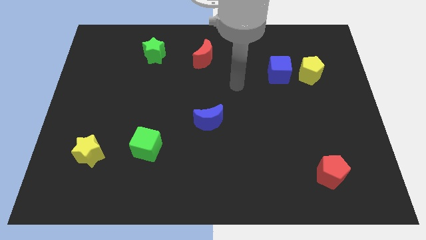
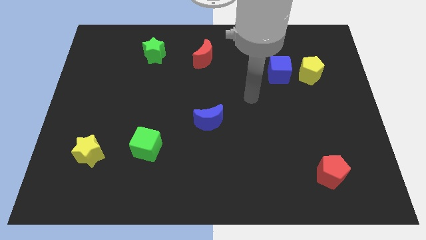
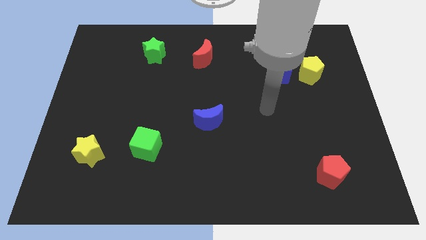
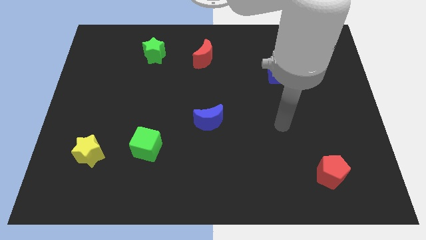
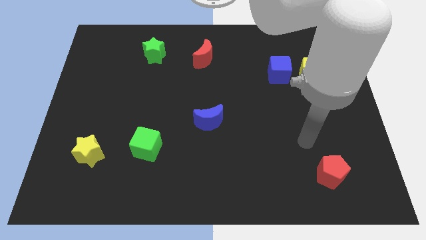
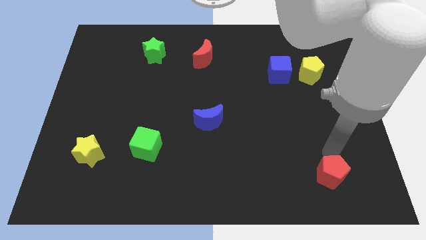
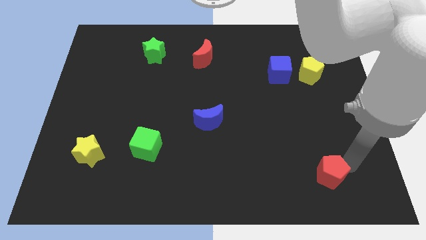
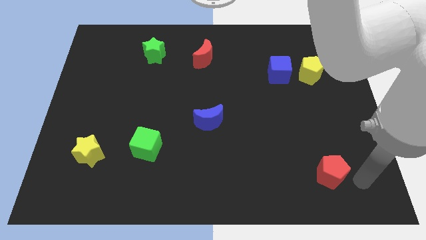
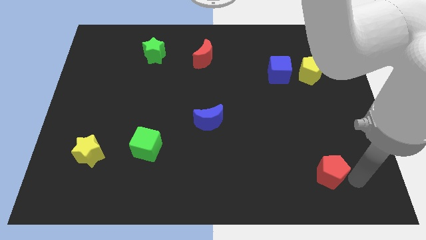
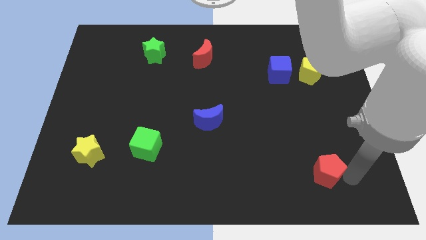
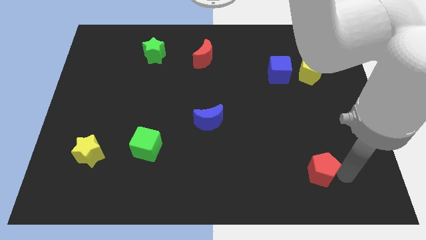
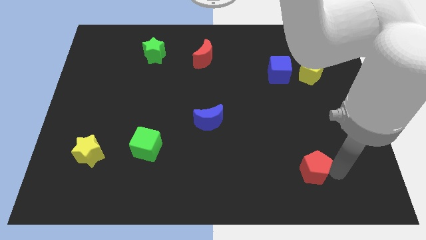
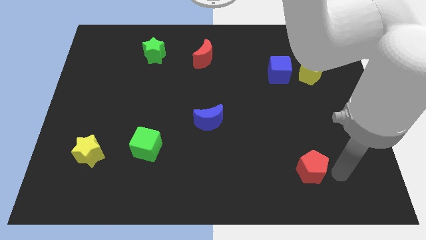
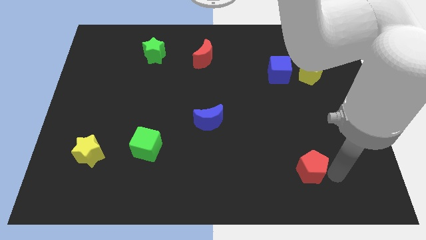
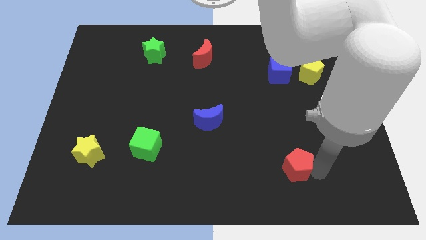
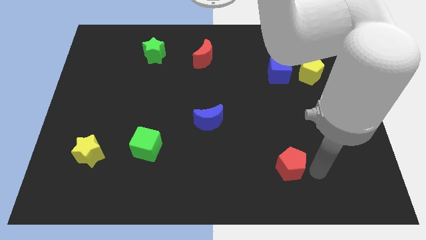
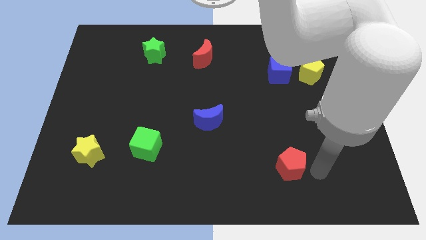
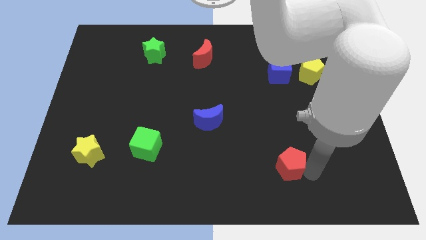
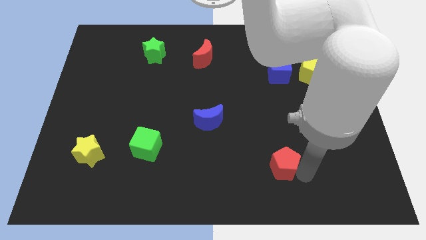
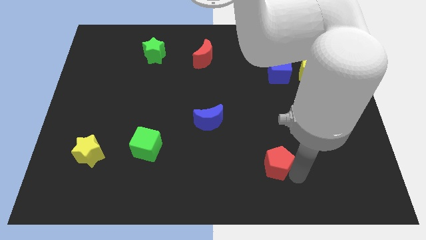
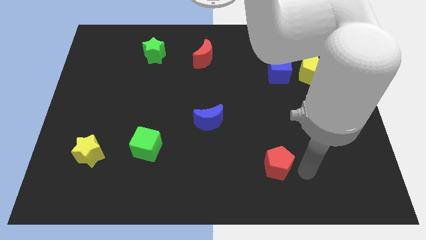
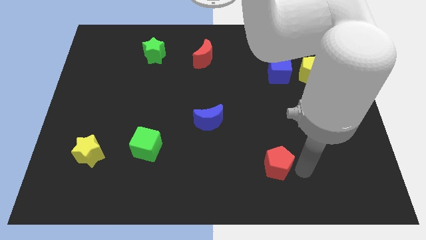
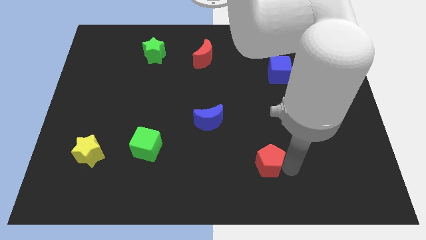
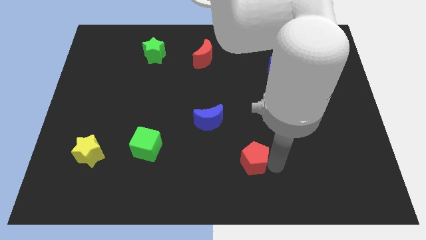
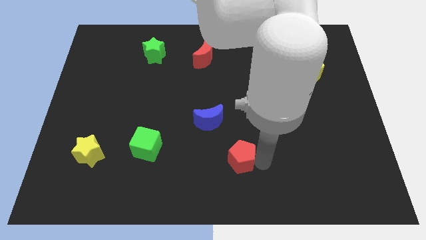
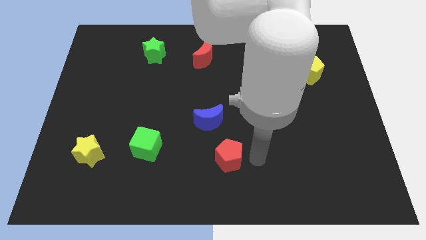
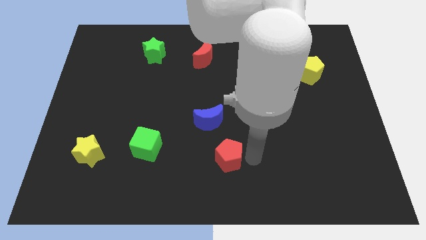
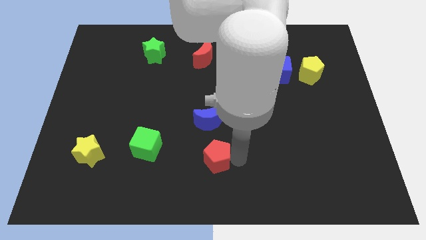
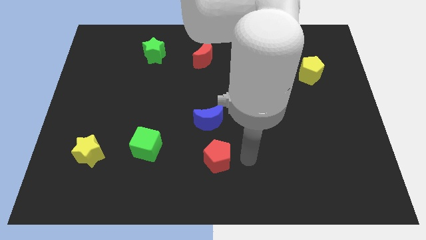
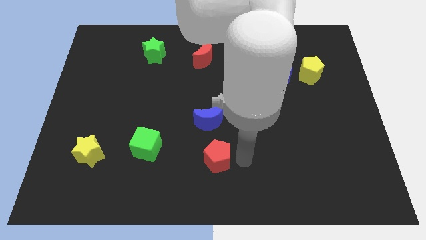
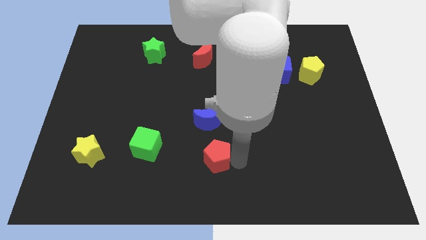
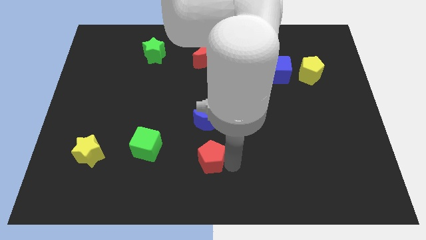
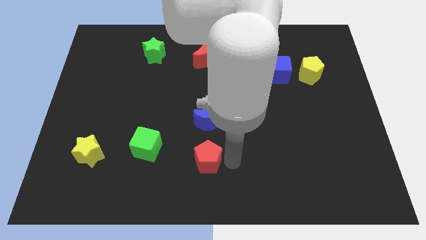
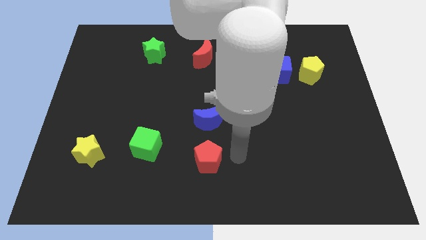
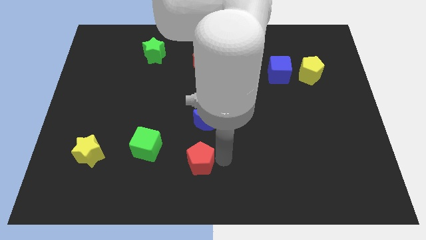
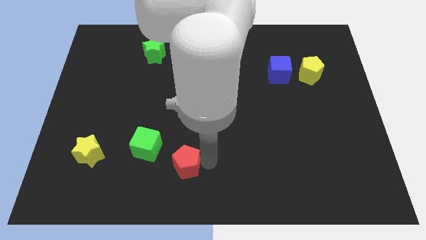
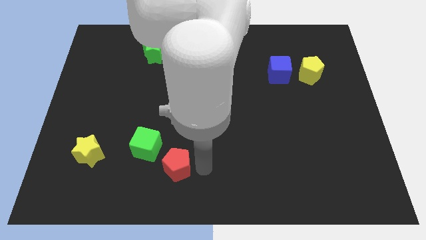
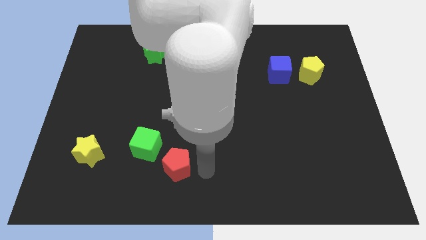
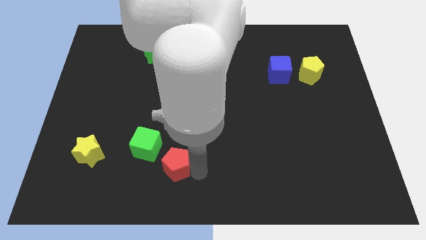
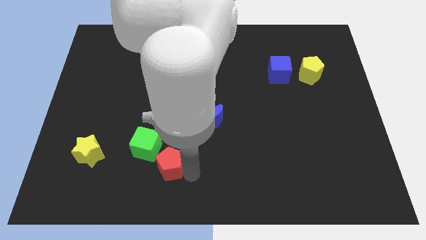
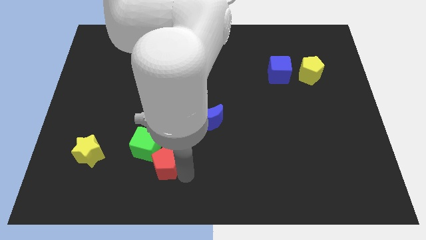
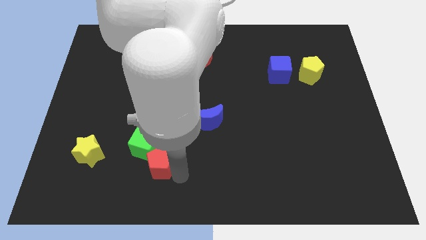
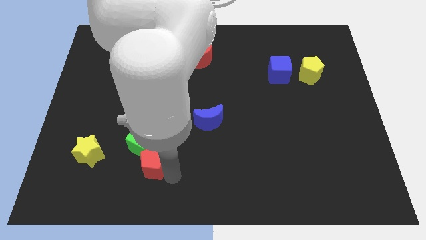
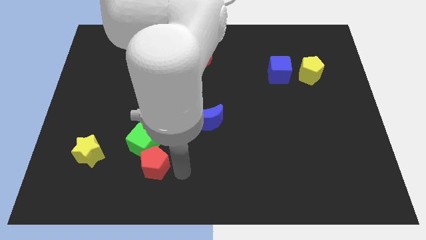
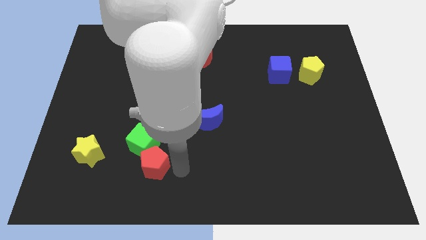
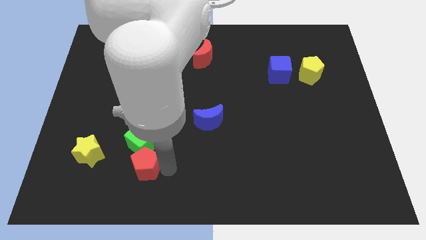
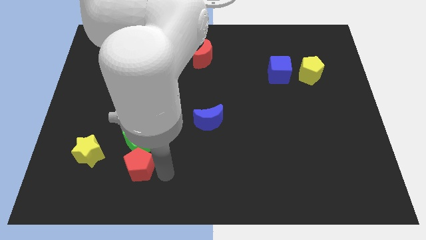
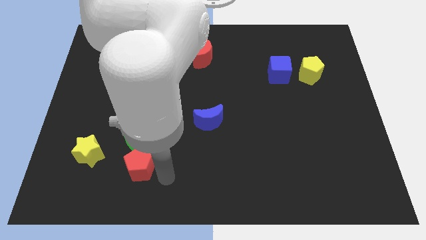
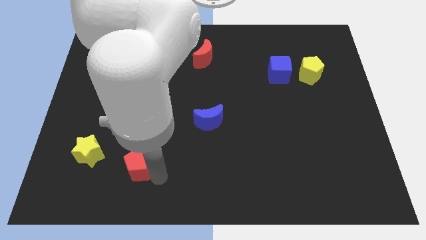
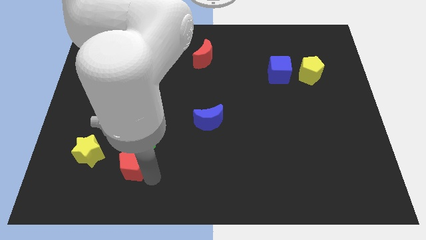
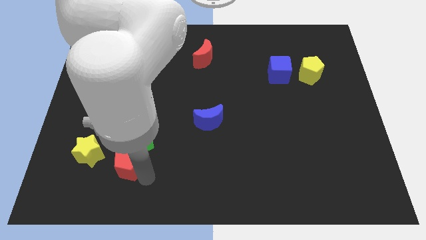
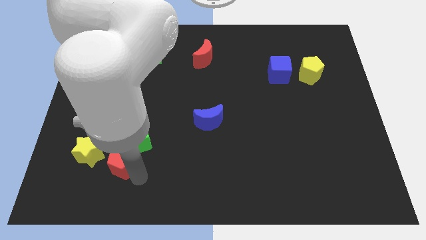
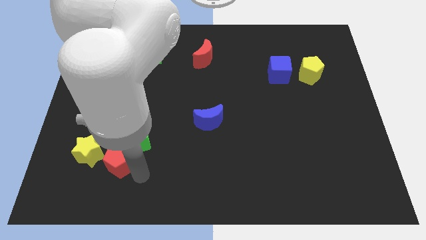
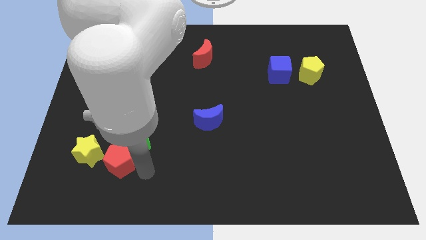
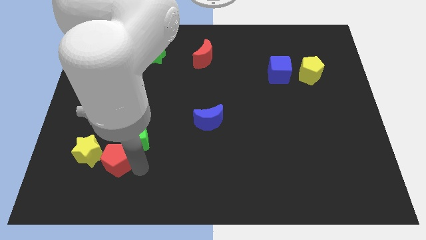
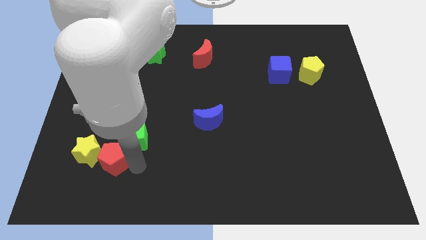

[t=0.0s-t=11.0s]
slide the red pentagon next to the yellow star

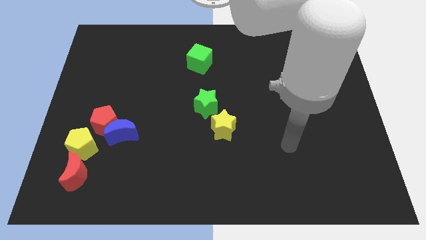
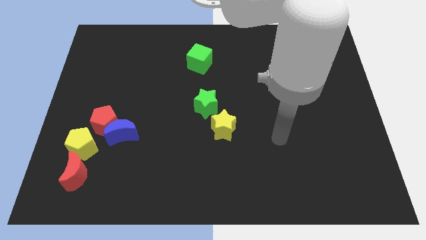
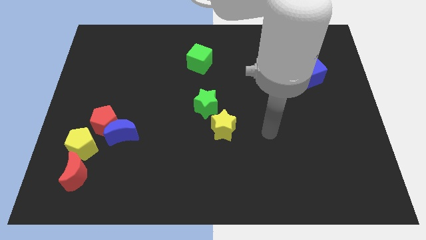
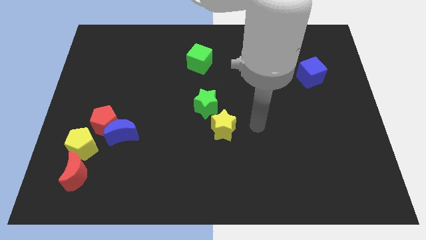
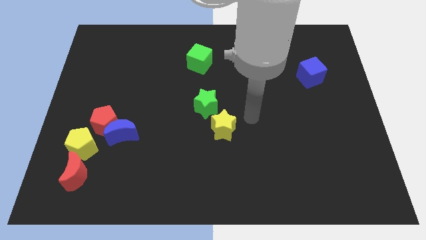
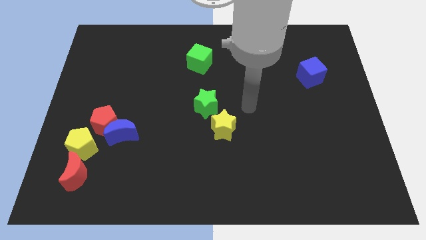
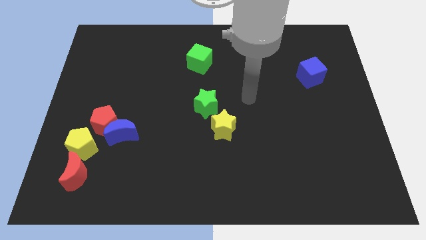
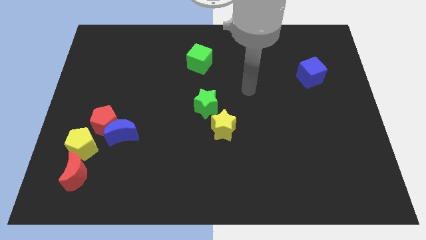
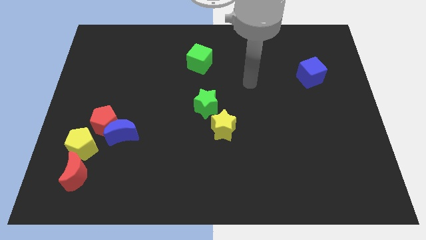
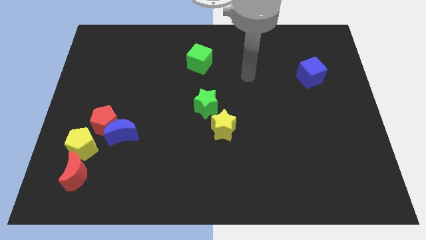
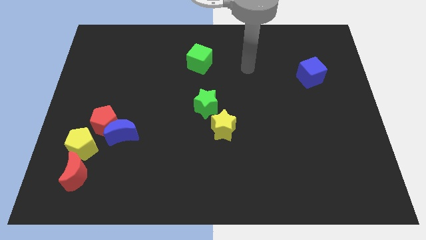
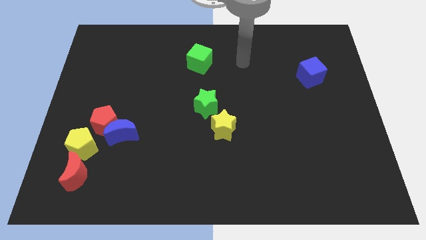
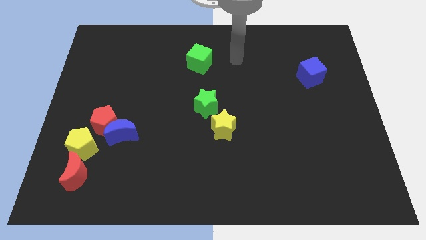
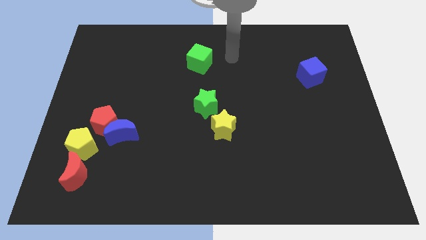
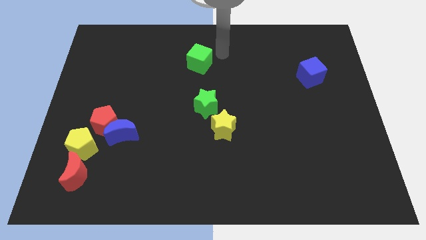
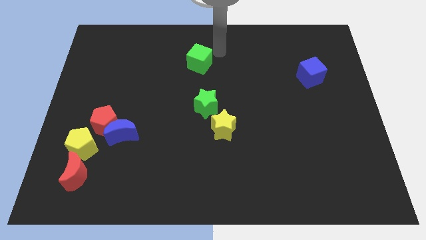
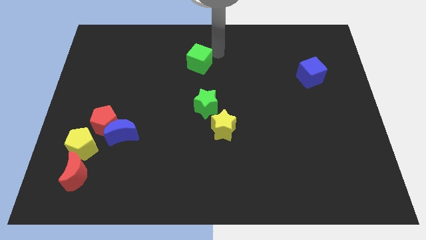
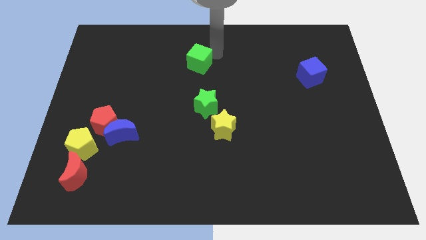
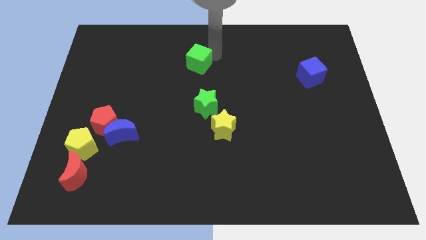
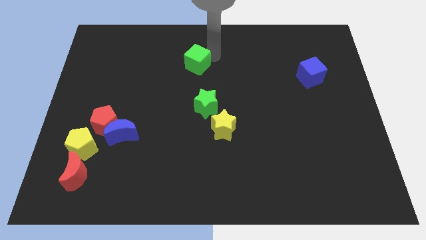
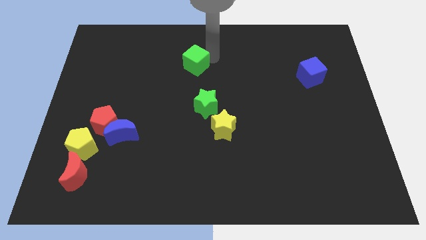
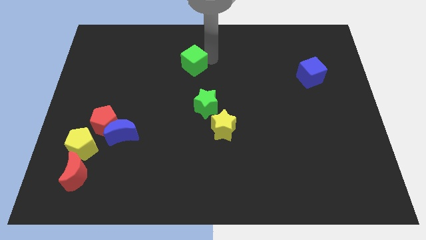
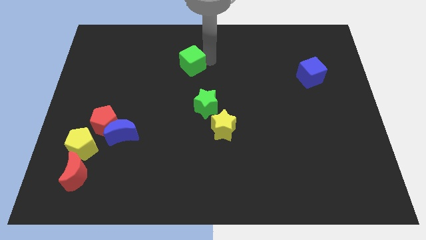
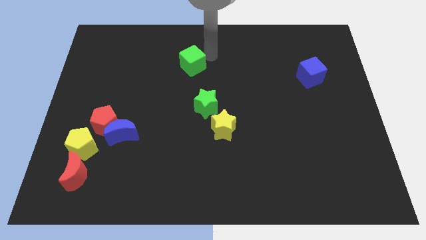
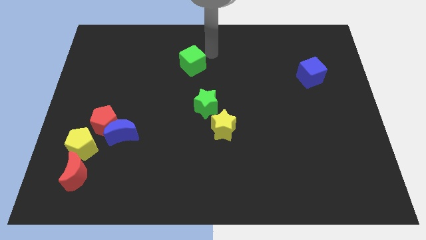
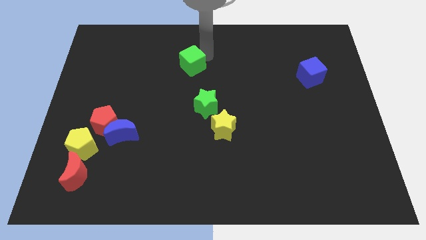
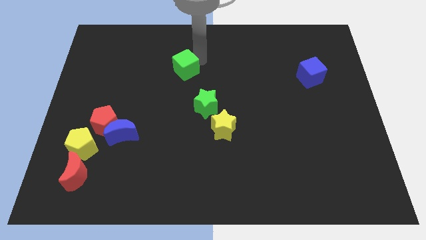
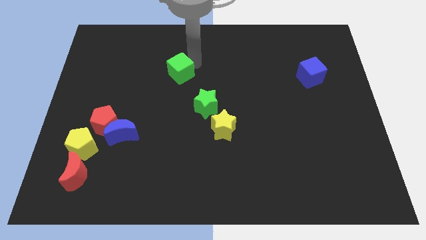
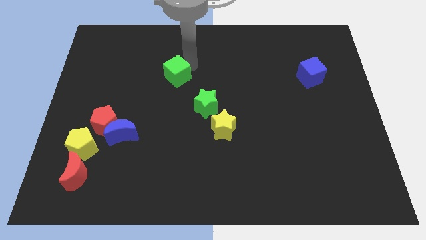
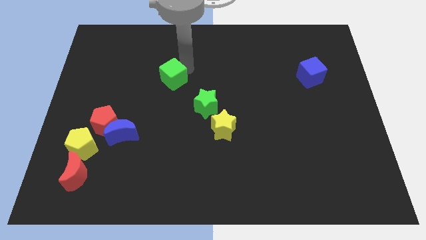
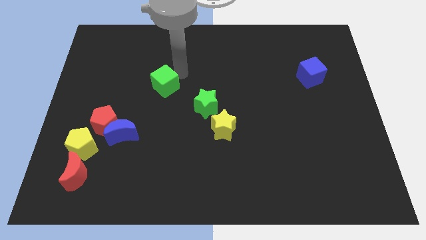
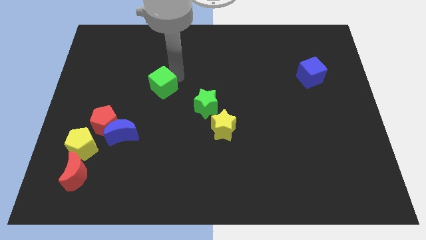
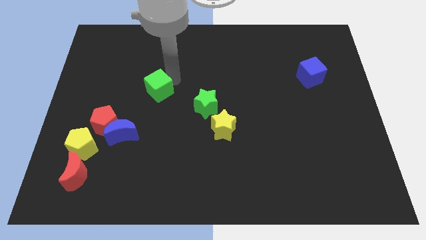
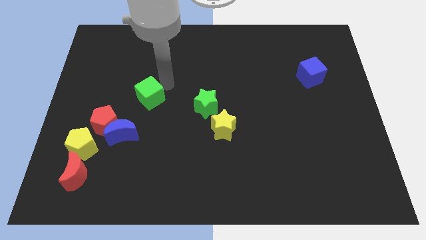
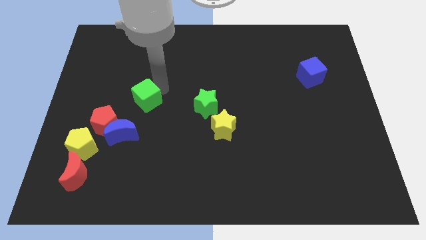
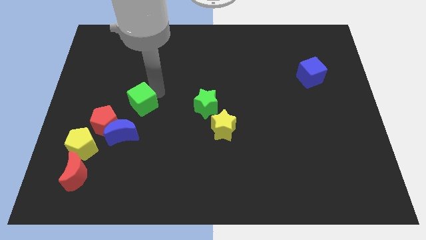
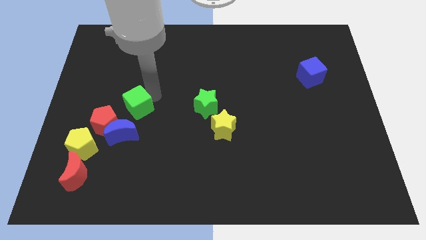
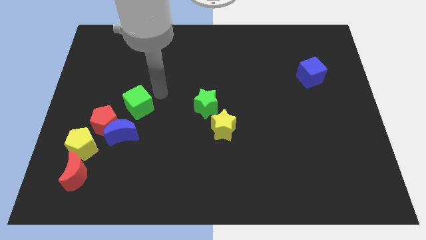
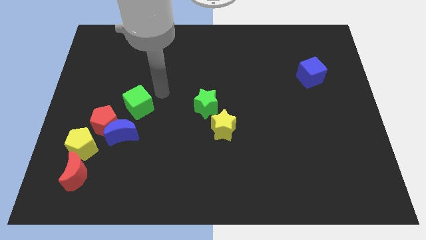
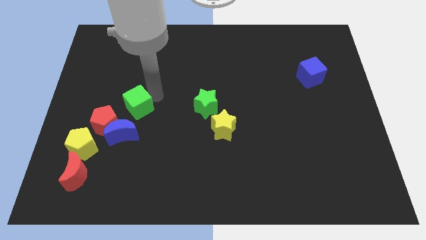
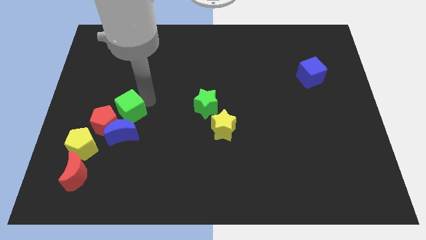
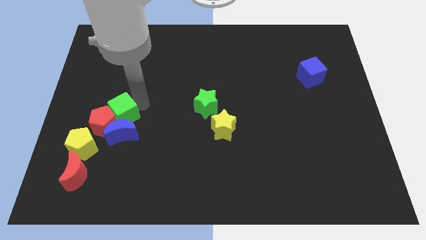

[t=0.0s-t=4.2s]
move the green cube next to the red pentagon
